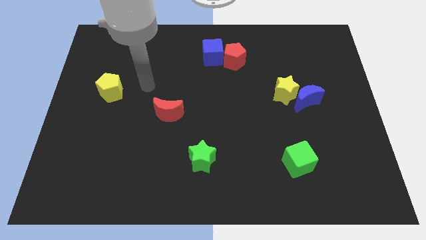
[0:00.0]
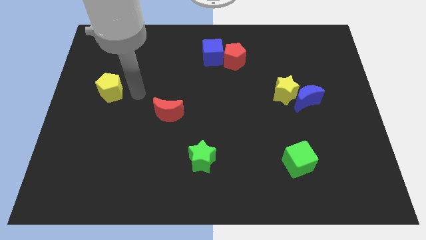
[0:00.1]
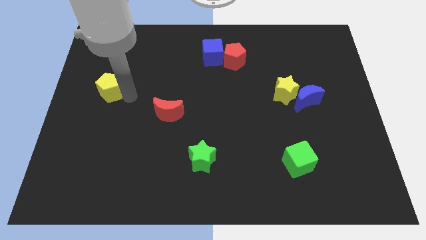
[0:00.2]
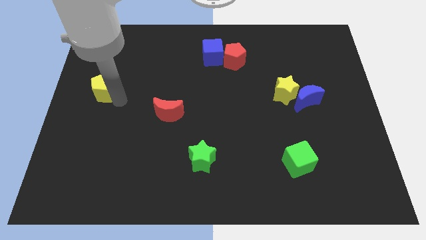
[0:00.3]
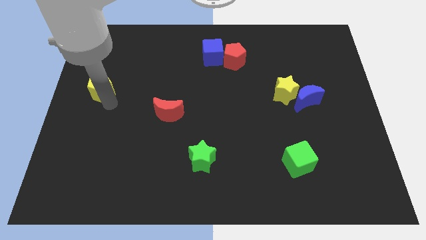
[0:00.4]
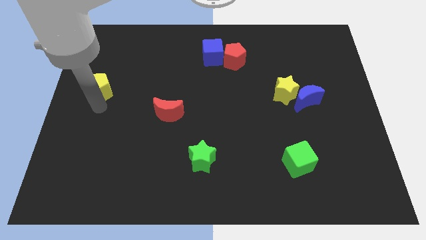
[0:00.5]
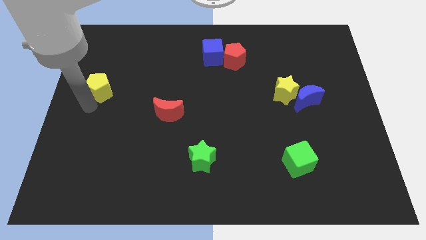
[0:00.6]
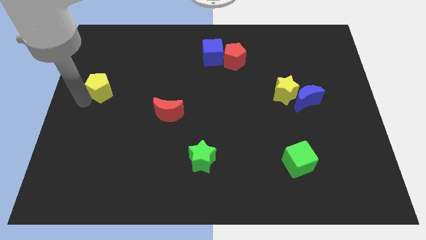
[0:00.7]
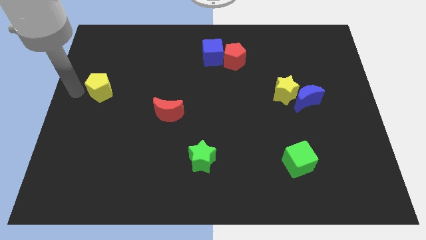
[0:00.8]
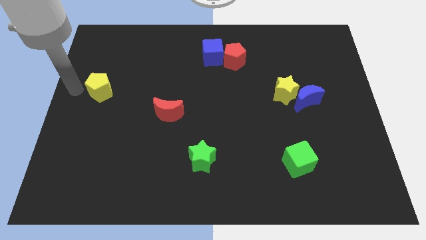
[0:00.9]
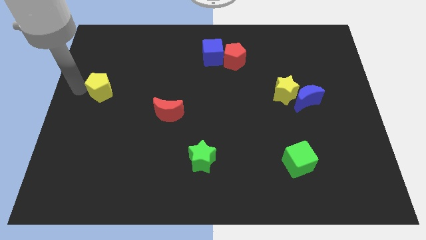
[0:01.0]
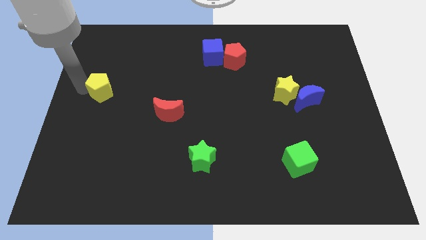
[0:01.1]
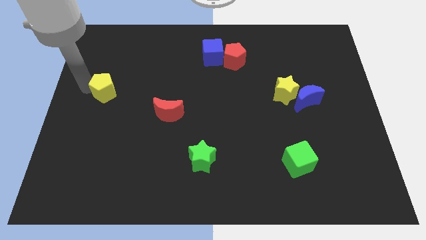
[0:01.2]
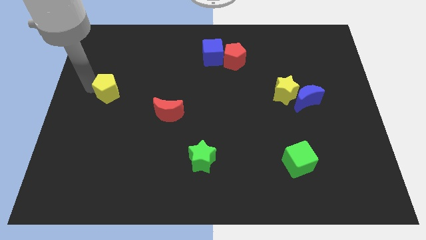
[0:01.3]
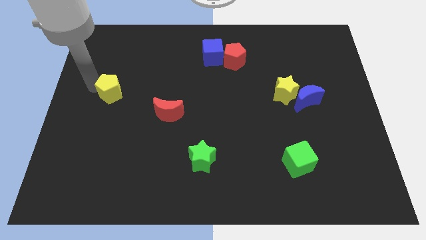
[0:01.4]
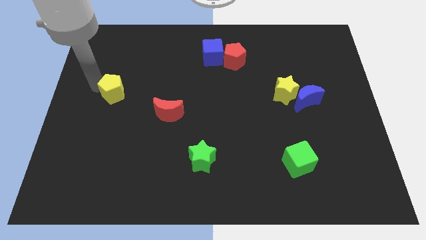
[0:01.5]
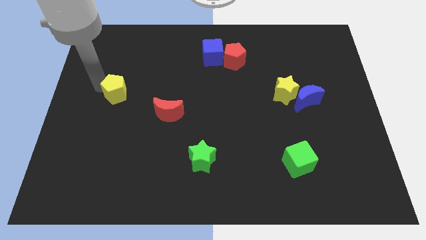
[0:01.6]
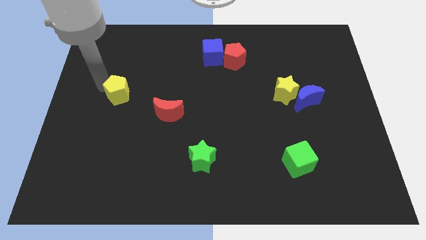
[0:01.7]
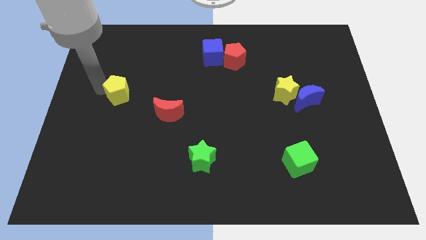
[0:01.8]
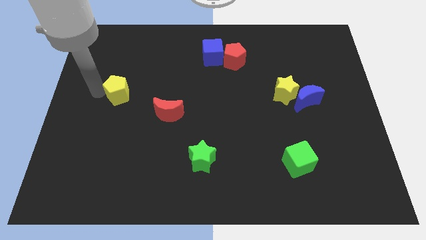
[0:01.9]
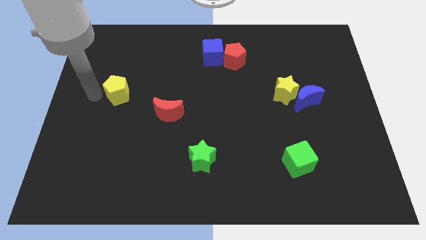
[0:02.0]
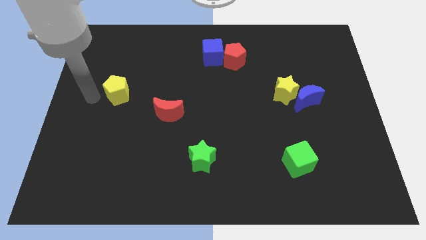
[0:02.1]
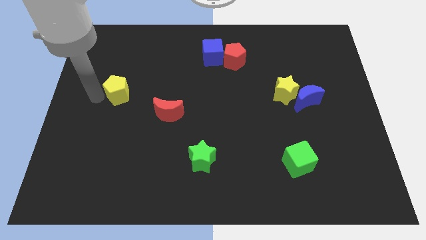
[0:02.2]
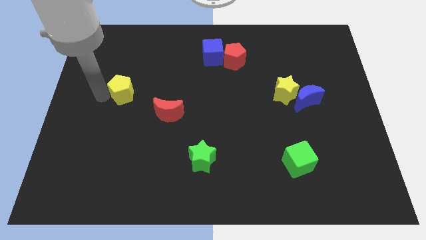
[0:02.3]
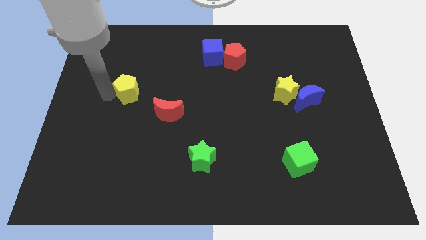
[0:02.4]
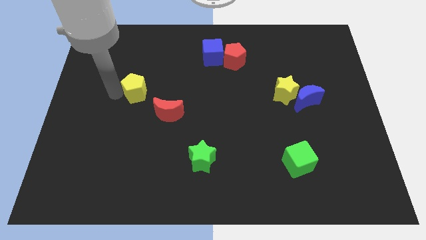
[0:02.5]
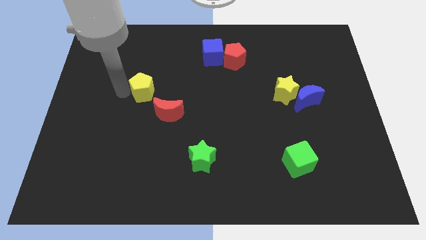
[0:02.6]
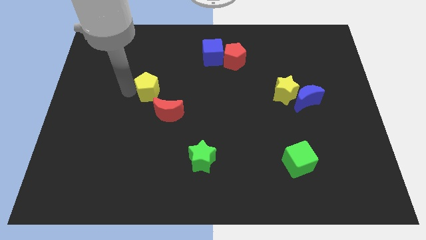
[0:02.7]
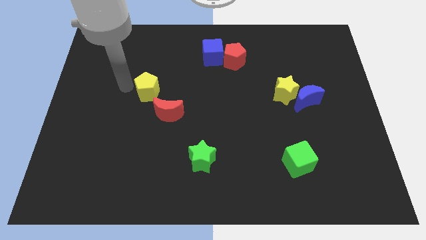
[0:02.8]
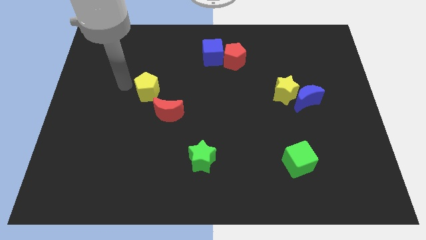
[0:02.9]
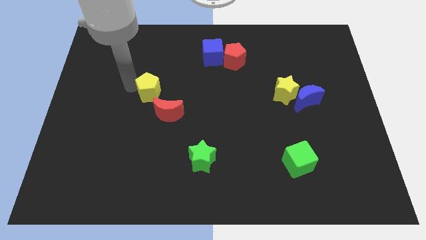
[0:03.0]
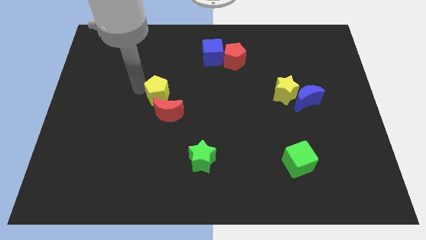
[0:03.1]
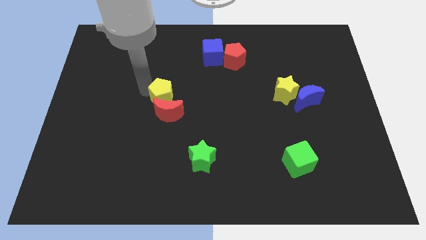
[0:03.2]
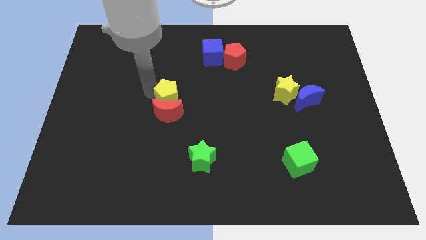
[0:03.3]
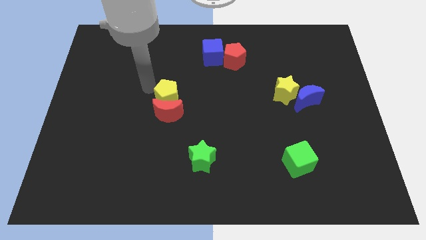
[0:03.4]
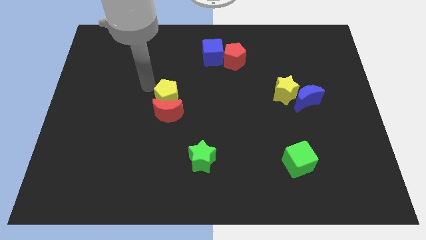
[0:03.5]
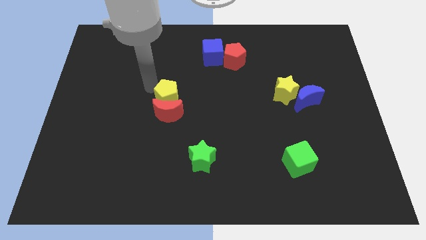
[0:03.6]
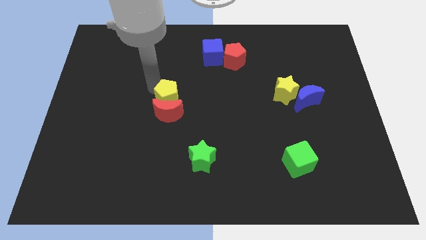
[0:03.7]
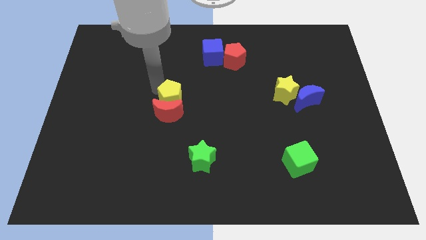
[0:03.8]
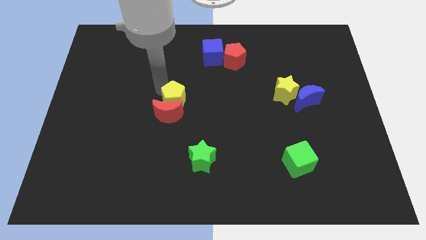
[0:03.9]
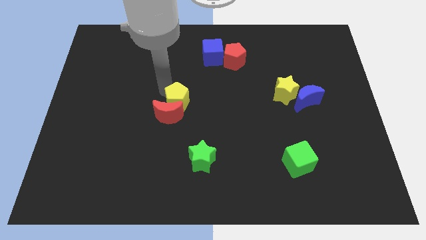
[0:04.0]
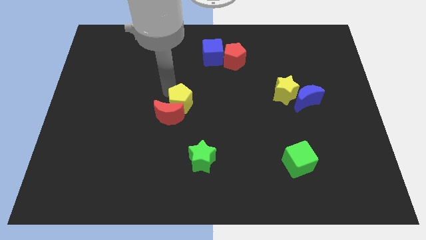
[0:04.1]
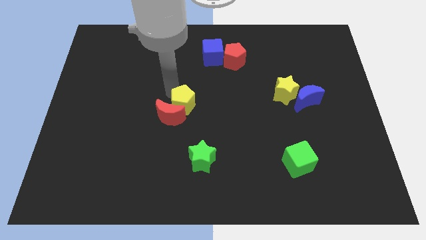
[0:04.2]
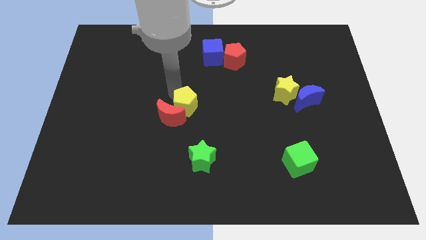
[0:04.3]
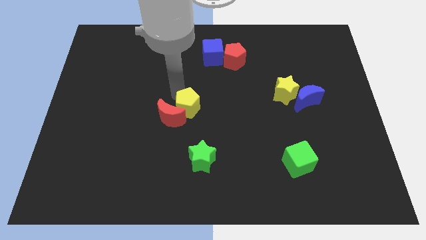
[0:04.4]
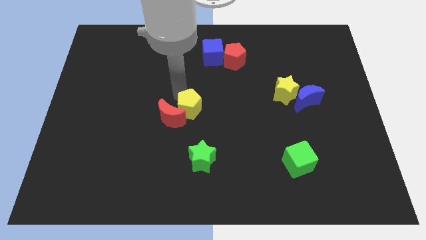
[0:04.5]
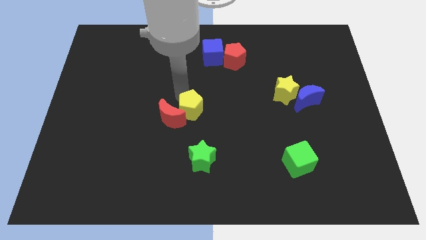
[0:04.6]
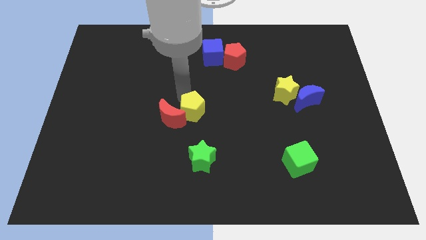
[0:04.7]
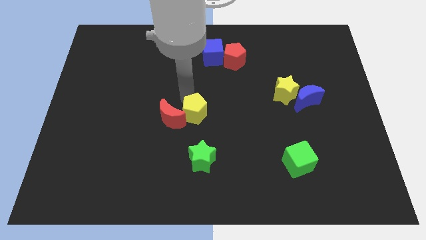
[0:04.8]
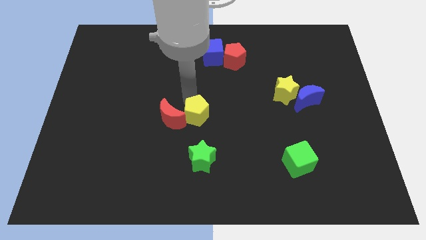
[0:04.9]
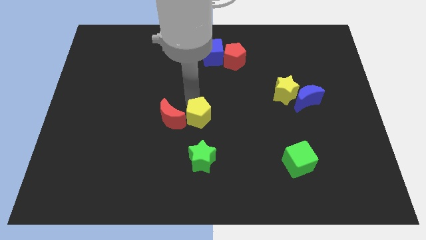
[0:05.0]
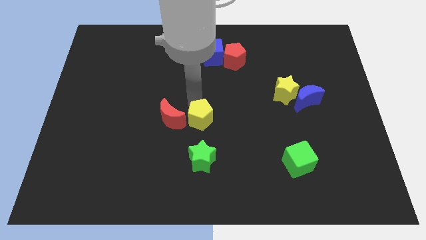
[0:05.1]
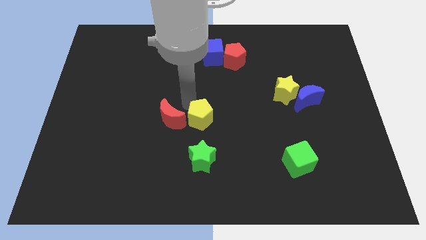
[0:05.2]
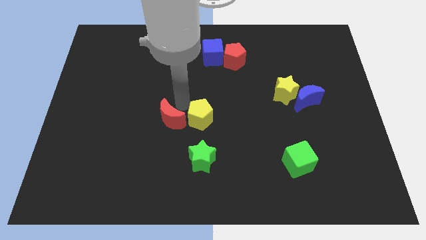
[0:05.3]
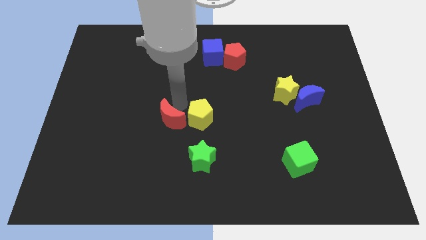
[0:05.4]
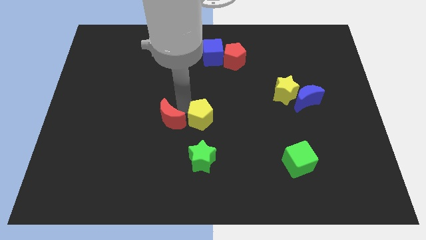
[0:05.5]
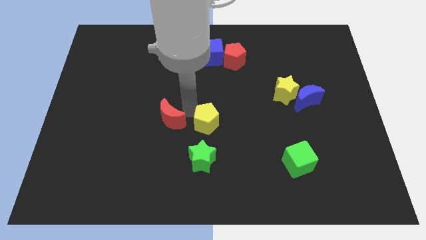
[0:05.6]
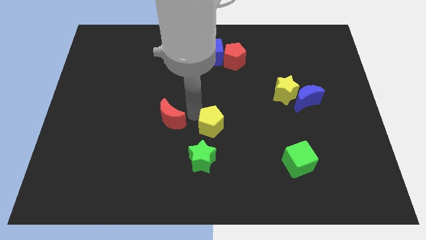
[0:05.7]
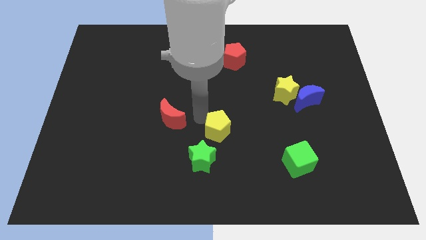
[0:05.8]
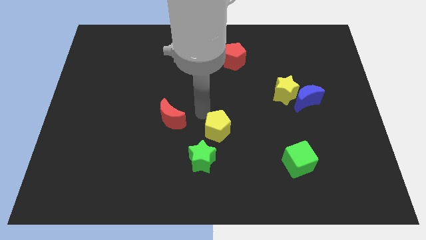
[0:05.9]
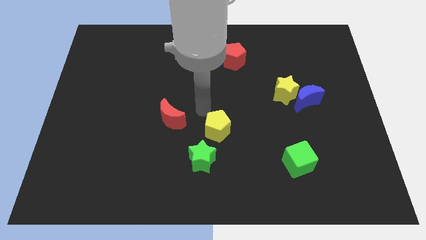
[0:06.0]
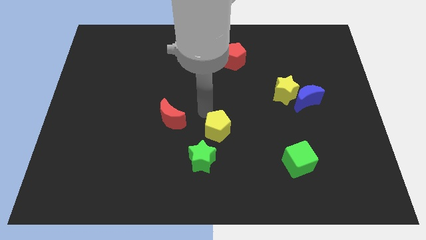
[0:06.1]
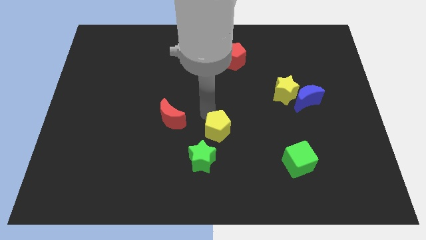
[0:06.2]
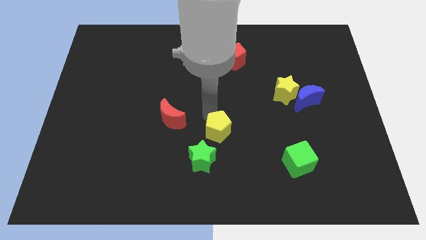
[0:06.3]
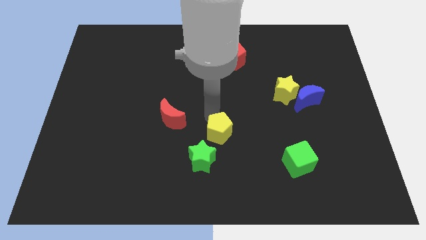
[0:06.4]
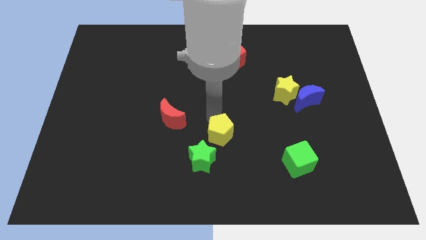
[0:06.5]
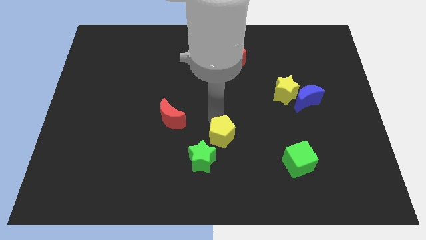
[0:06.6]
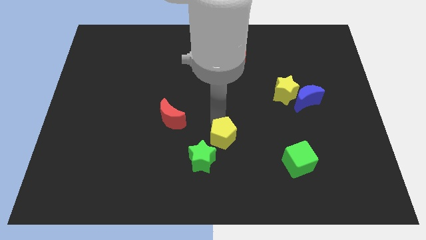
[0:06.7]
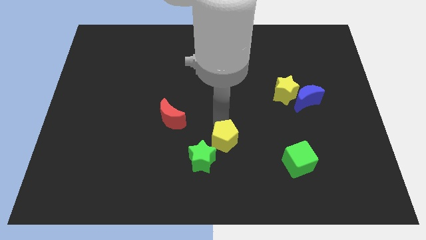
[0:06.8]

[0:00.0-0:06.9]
push the yellow pentagon right of the green star

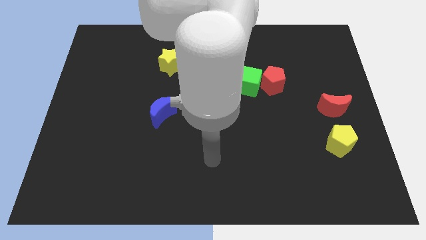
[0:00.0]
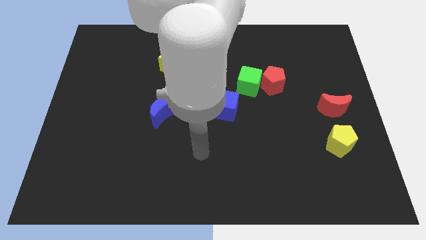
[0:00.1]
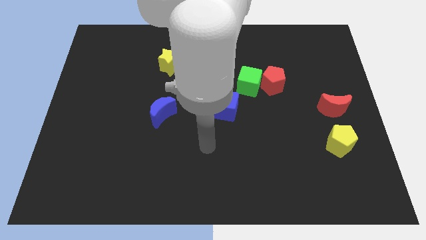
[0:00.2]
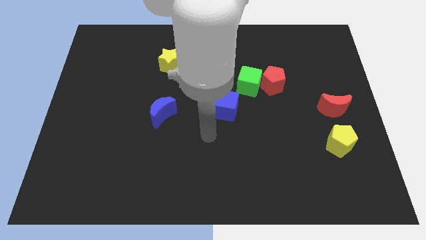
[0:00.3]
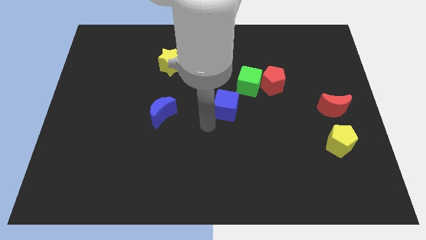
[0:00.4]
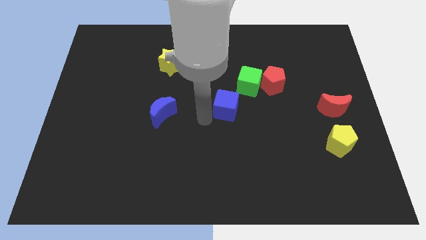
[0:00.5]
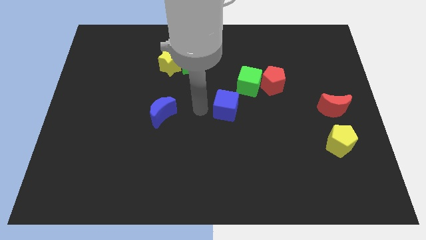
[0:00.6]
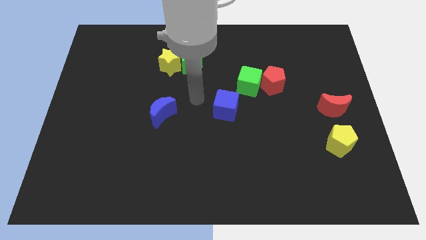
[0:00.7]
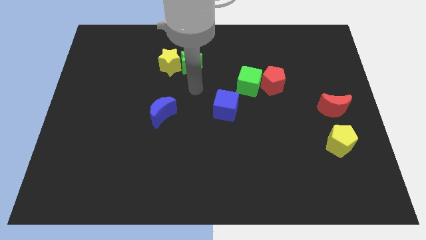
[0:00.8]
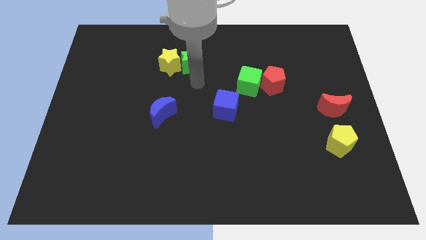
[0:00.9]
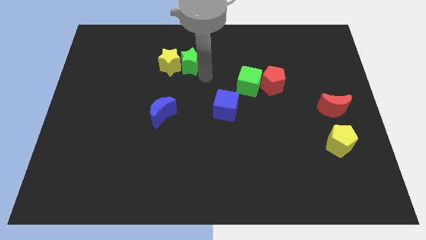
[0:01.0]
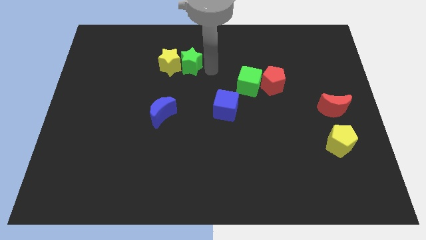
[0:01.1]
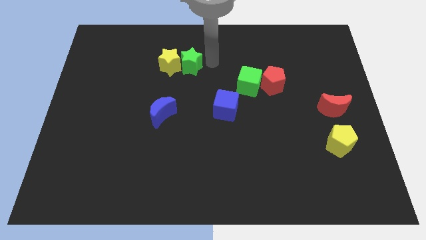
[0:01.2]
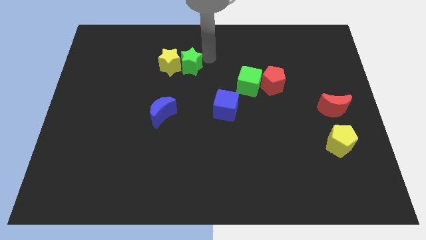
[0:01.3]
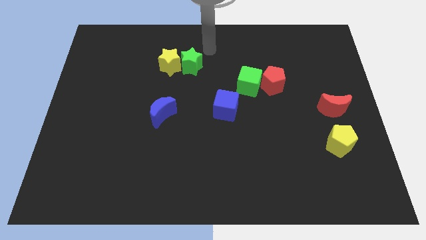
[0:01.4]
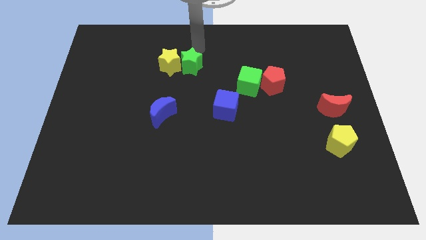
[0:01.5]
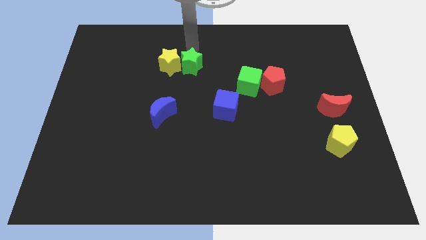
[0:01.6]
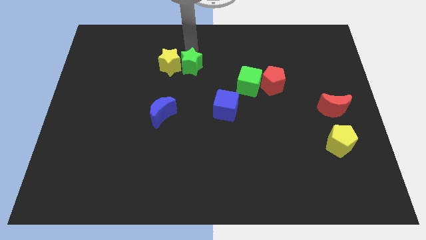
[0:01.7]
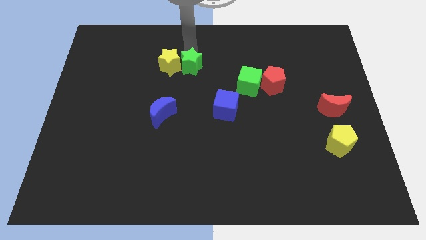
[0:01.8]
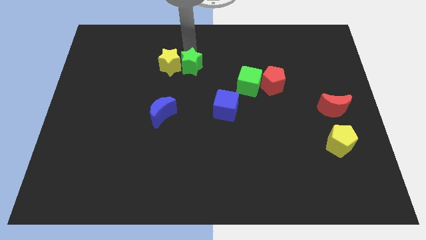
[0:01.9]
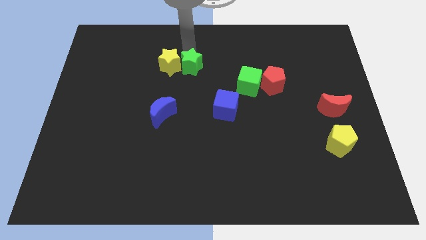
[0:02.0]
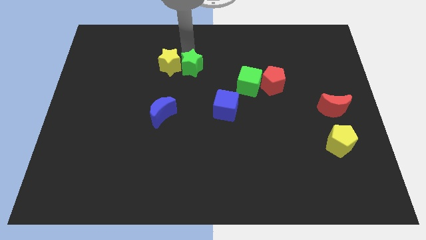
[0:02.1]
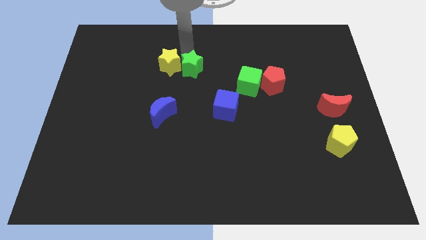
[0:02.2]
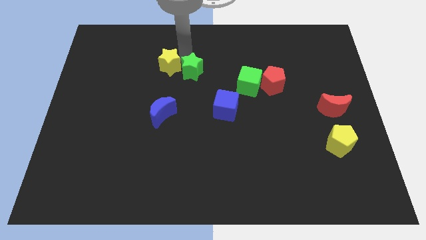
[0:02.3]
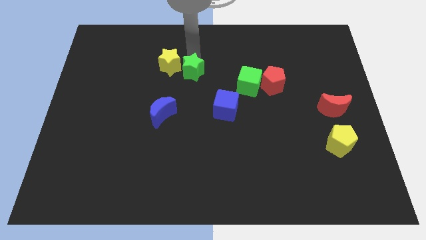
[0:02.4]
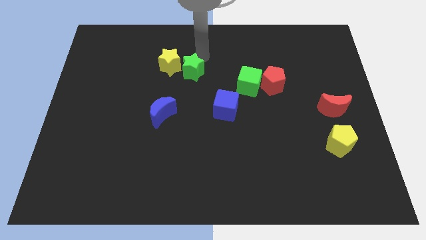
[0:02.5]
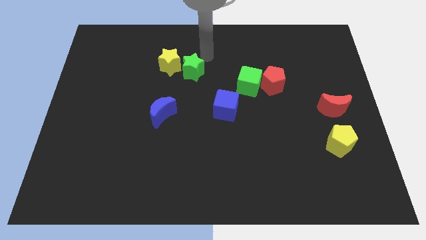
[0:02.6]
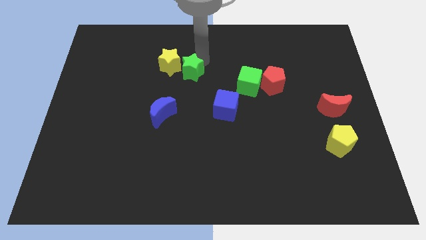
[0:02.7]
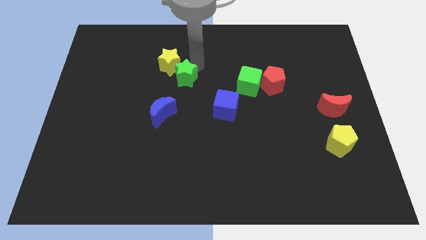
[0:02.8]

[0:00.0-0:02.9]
slide the green star to the bottom side of the yellow star
